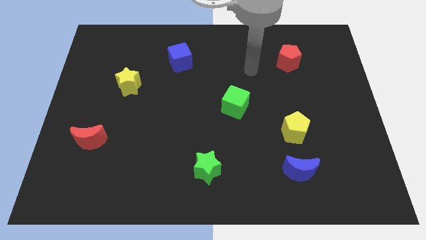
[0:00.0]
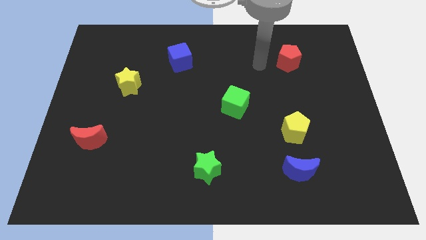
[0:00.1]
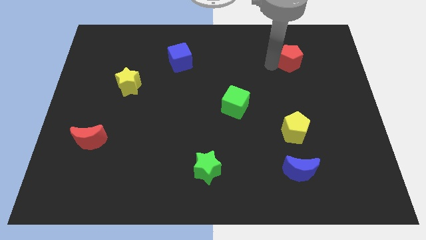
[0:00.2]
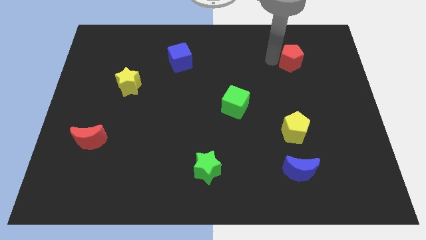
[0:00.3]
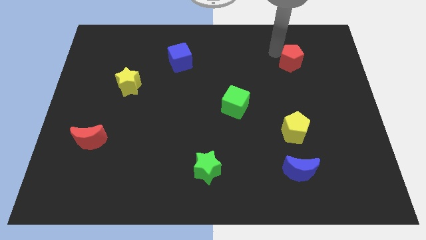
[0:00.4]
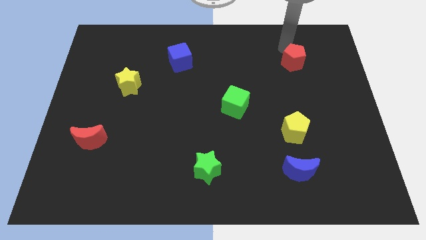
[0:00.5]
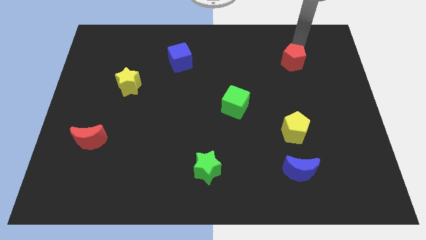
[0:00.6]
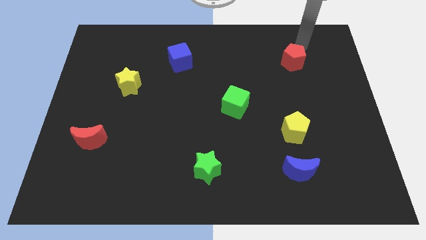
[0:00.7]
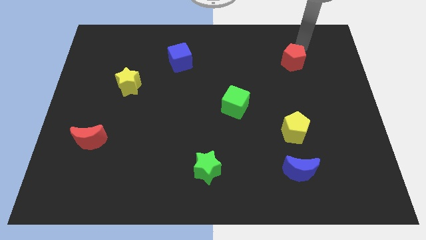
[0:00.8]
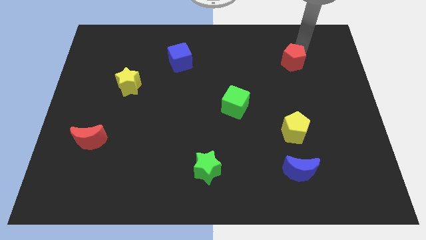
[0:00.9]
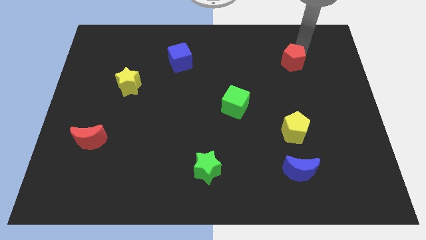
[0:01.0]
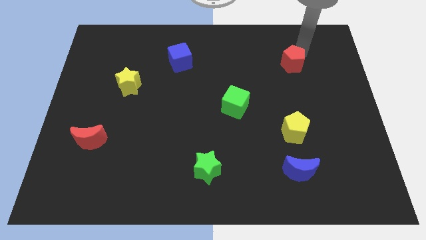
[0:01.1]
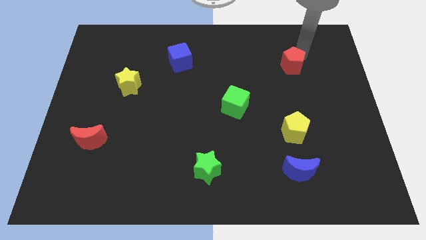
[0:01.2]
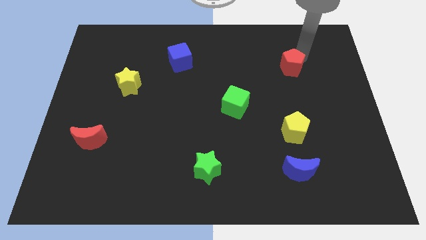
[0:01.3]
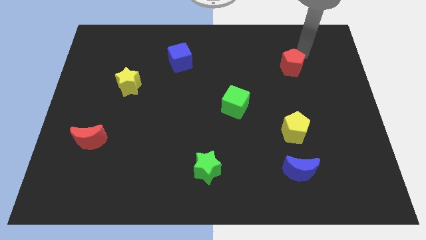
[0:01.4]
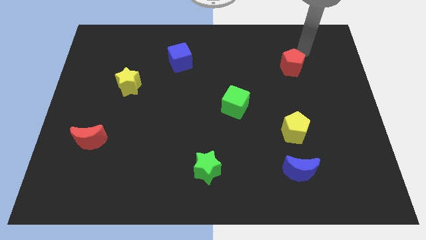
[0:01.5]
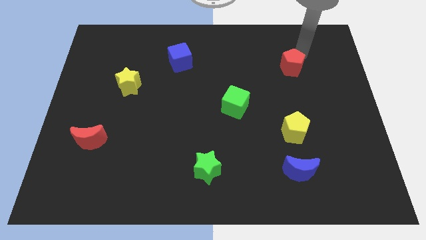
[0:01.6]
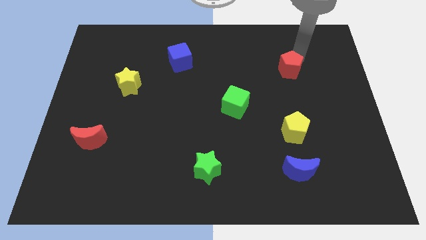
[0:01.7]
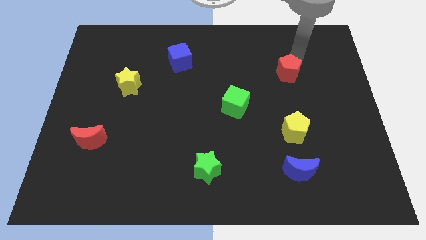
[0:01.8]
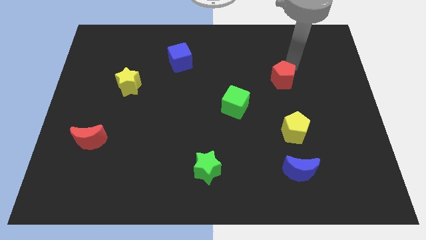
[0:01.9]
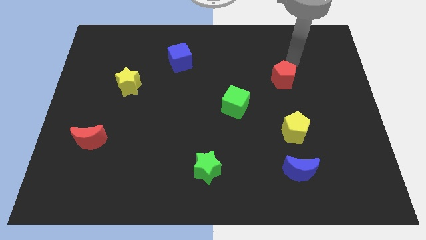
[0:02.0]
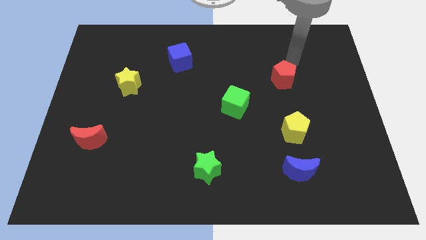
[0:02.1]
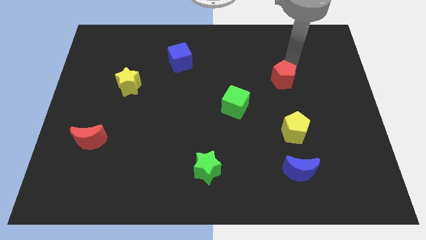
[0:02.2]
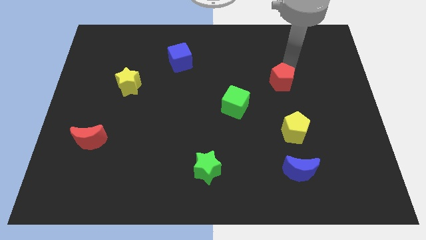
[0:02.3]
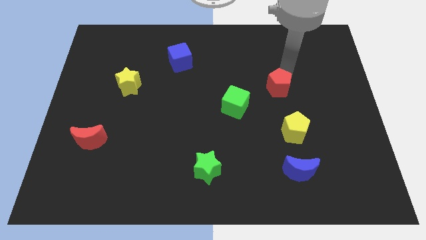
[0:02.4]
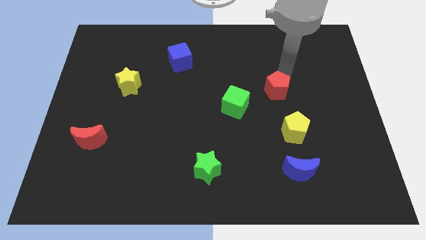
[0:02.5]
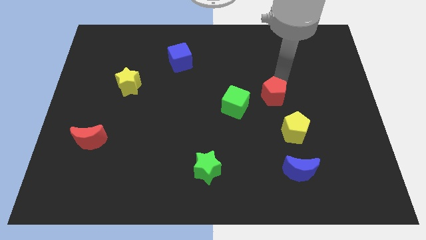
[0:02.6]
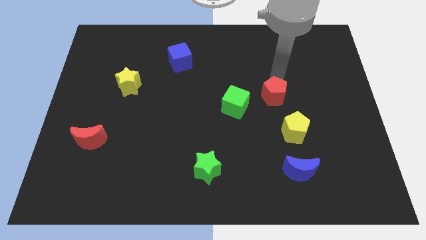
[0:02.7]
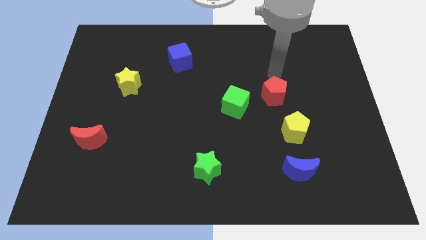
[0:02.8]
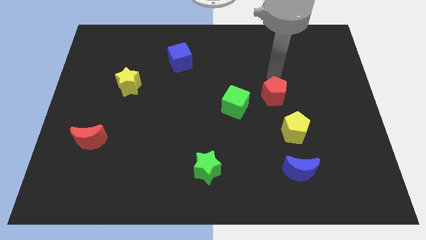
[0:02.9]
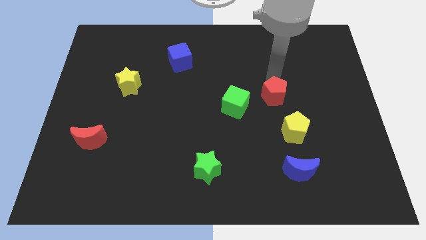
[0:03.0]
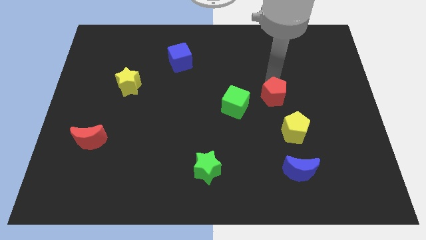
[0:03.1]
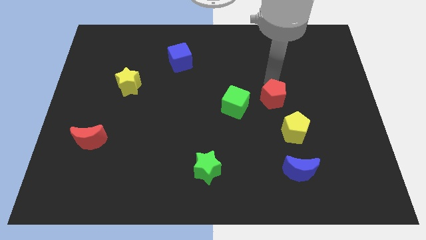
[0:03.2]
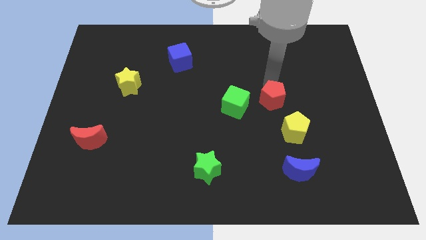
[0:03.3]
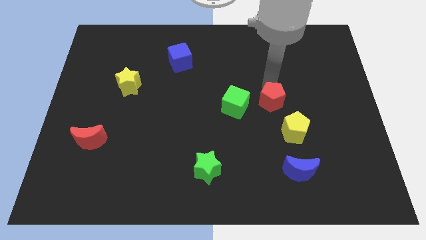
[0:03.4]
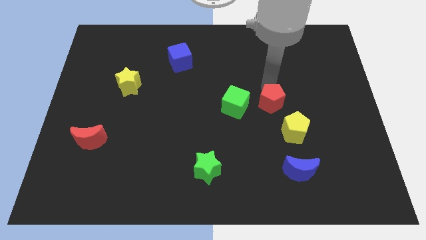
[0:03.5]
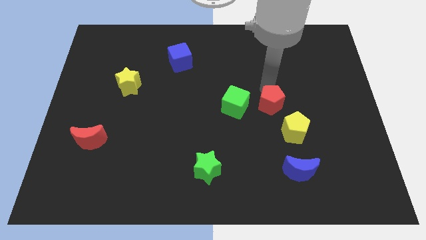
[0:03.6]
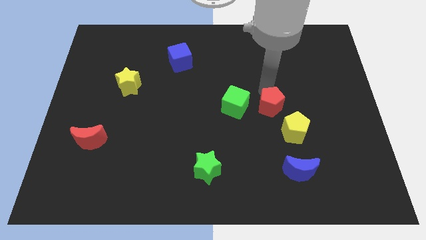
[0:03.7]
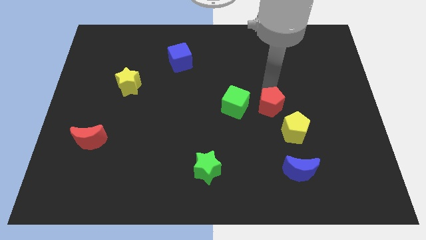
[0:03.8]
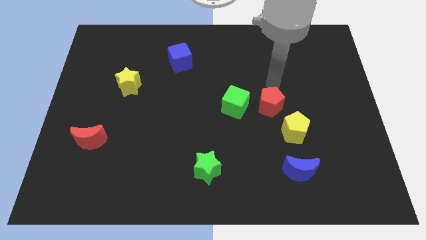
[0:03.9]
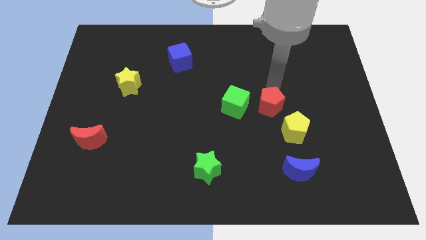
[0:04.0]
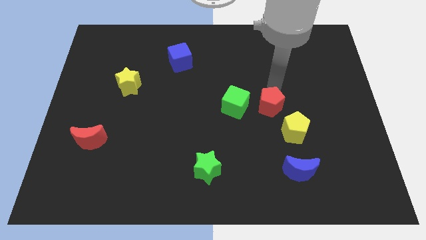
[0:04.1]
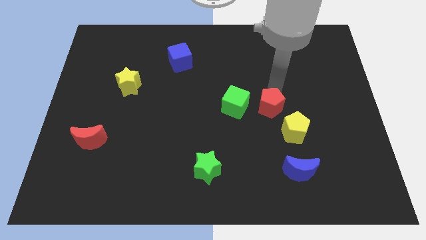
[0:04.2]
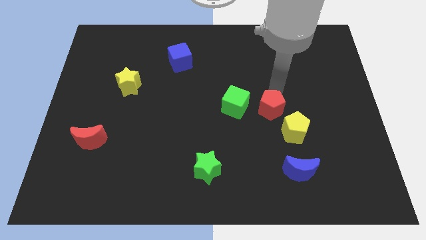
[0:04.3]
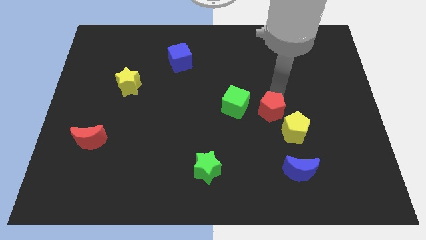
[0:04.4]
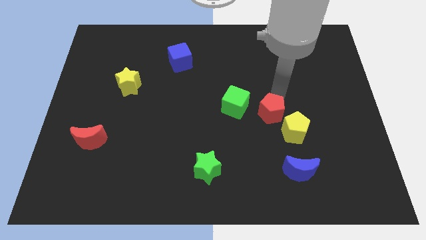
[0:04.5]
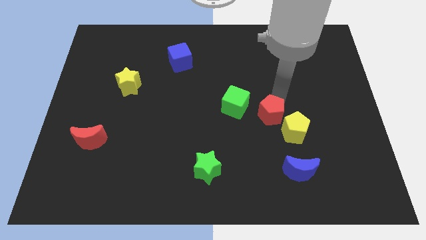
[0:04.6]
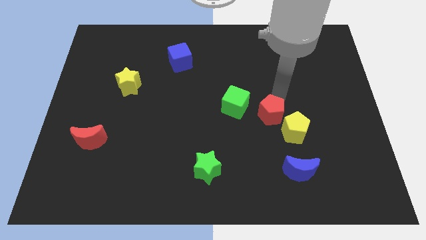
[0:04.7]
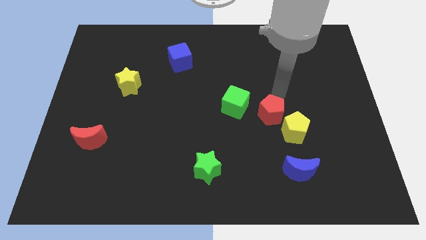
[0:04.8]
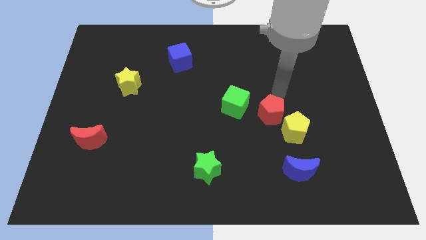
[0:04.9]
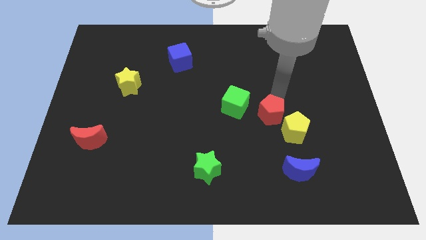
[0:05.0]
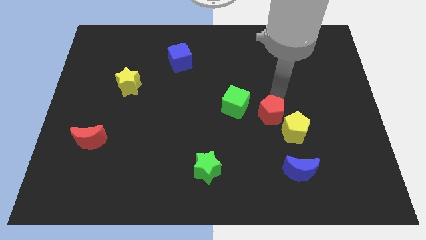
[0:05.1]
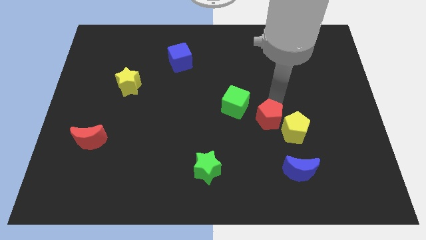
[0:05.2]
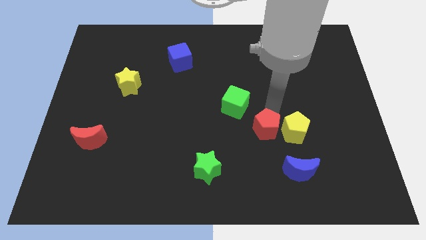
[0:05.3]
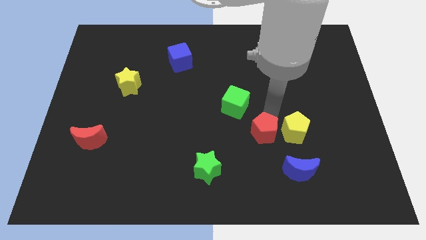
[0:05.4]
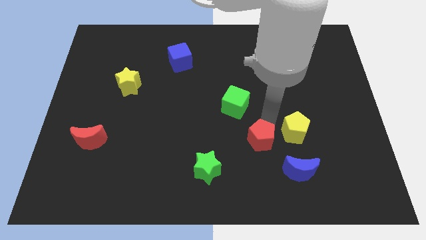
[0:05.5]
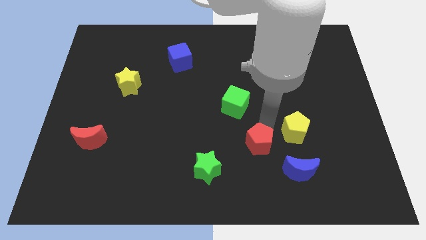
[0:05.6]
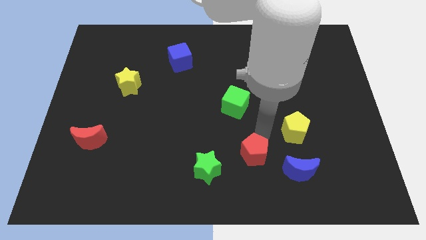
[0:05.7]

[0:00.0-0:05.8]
move the red pentagon left of the blue moon
